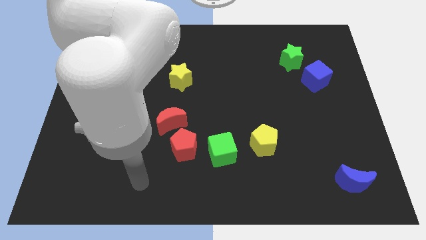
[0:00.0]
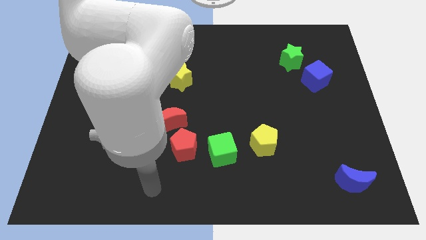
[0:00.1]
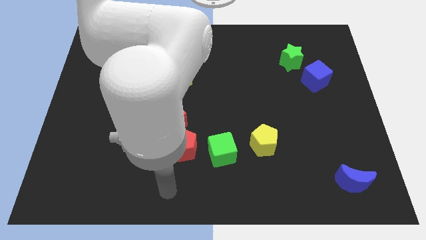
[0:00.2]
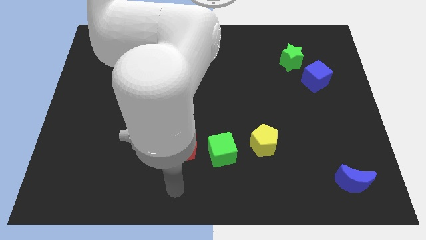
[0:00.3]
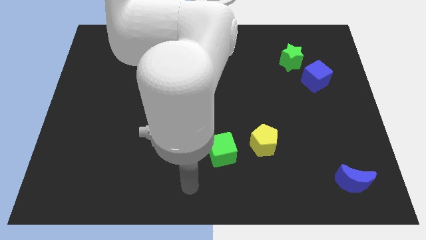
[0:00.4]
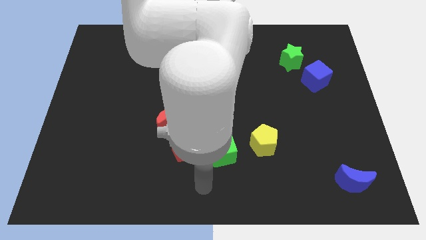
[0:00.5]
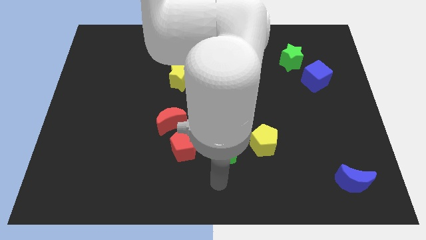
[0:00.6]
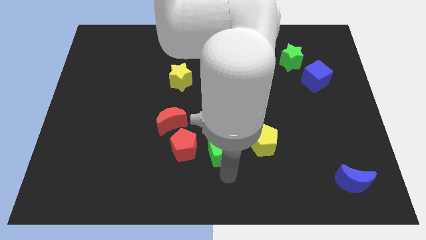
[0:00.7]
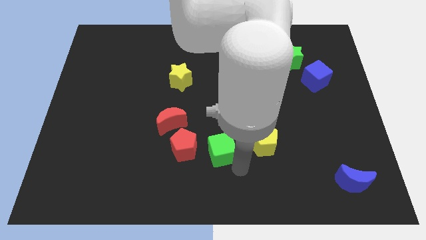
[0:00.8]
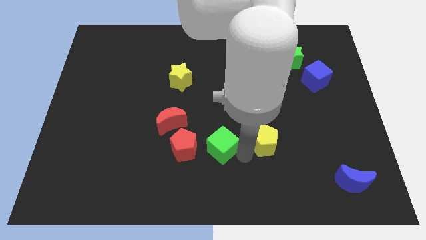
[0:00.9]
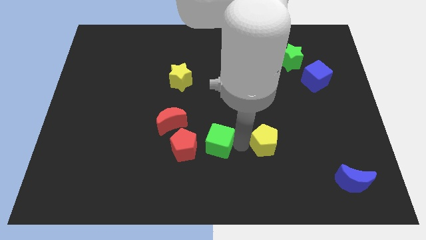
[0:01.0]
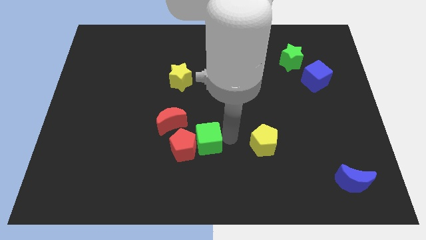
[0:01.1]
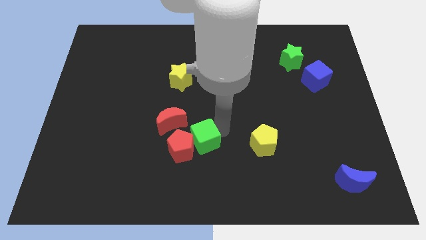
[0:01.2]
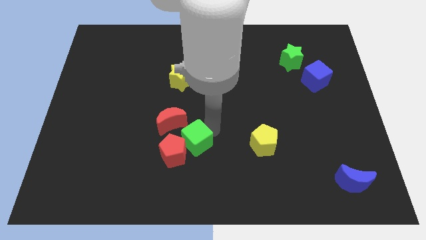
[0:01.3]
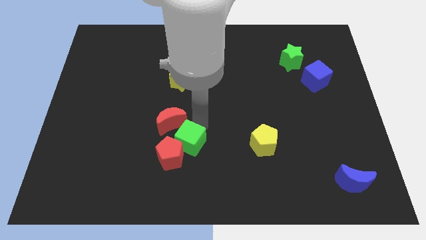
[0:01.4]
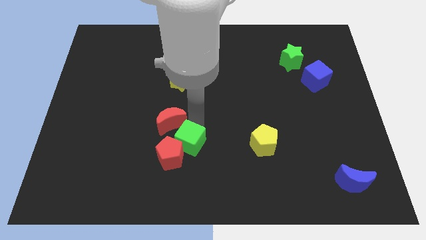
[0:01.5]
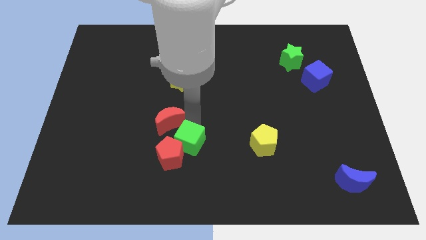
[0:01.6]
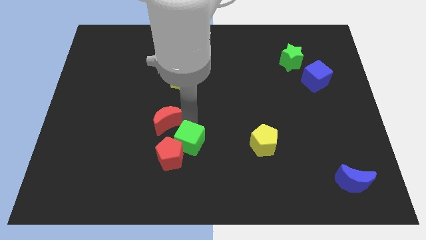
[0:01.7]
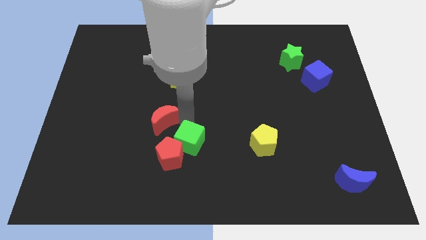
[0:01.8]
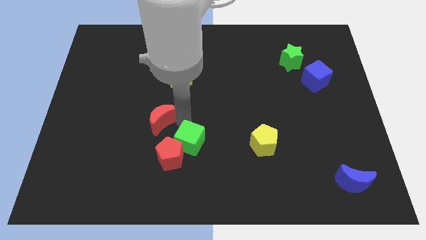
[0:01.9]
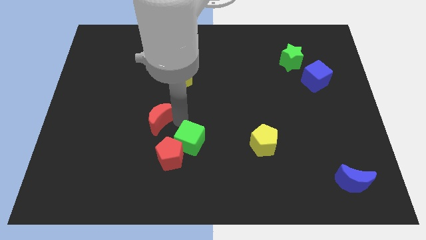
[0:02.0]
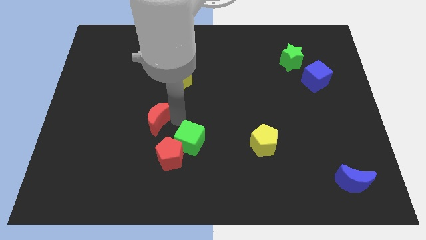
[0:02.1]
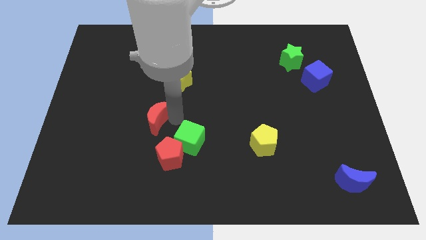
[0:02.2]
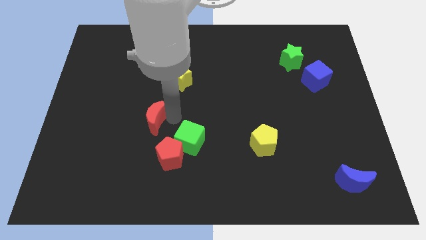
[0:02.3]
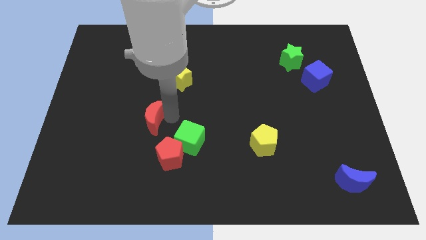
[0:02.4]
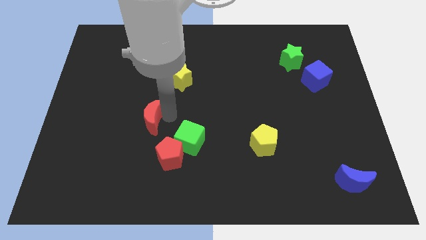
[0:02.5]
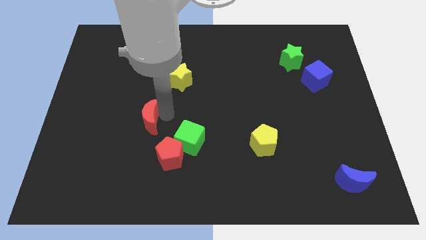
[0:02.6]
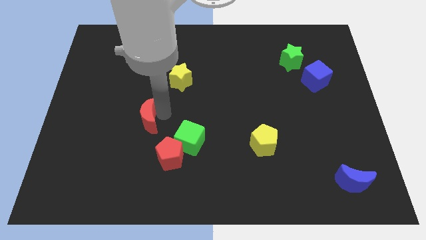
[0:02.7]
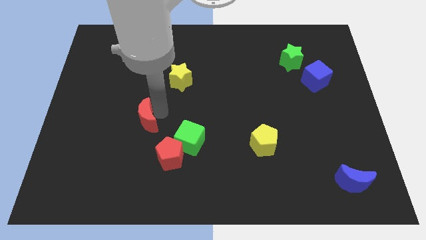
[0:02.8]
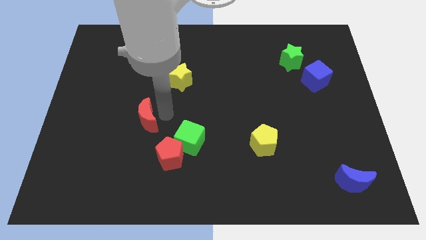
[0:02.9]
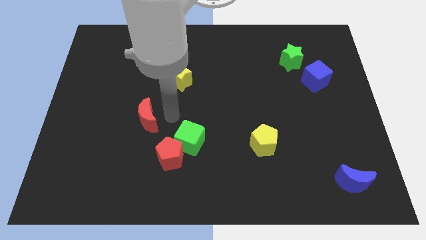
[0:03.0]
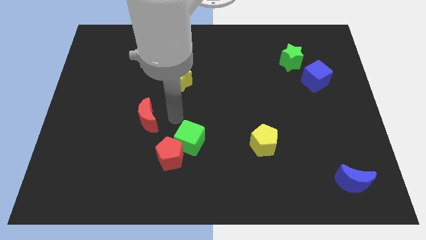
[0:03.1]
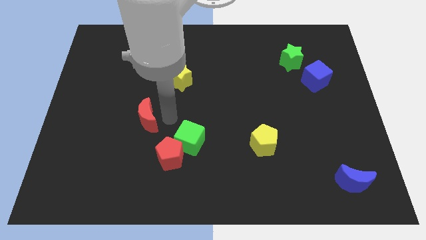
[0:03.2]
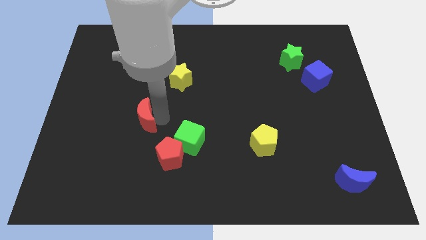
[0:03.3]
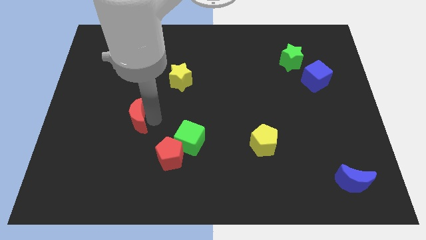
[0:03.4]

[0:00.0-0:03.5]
push the red moon slightly left

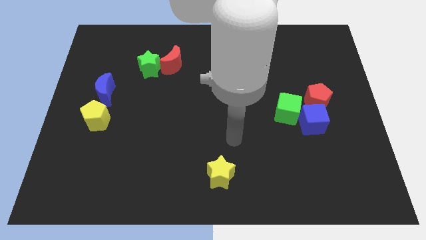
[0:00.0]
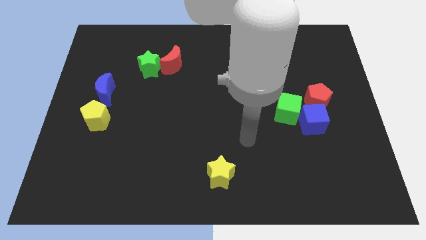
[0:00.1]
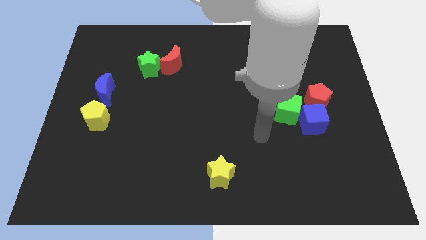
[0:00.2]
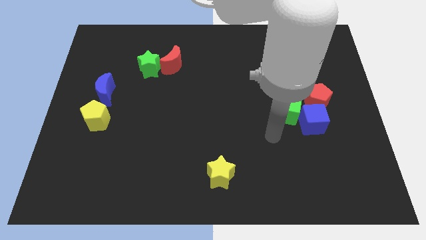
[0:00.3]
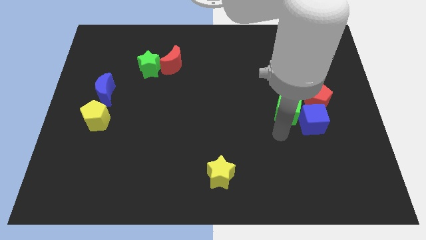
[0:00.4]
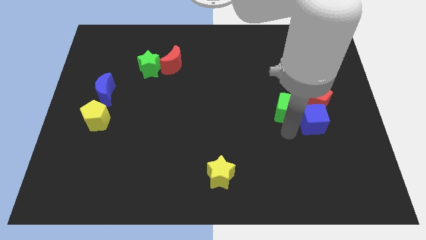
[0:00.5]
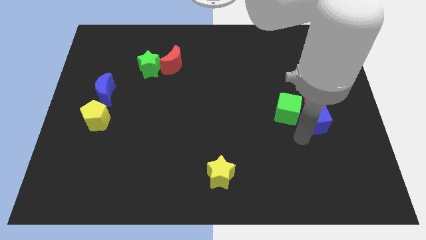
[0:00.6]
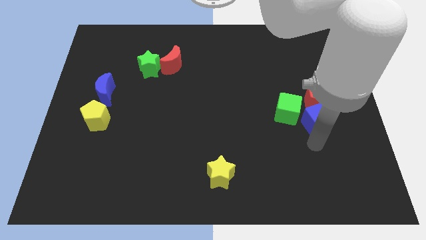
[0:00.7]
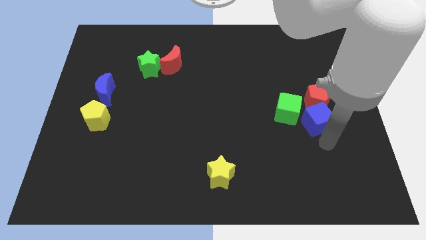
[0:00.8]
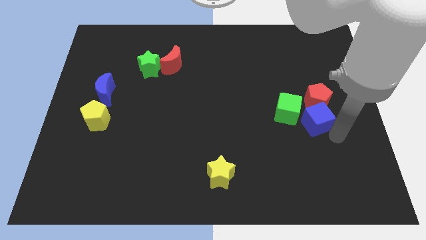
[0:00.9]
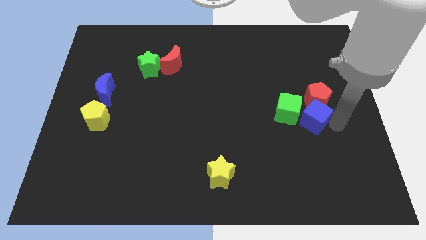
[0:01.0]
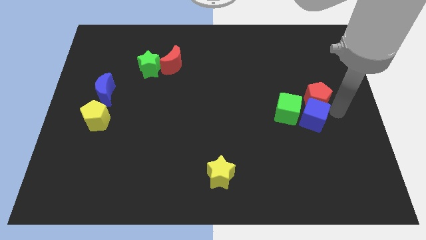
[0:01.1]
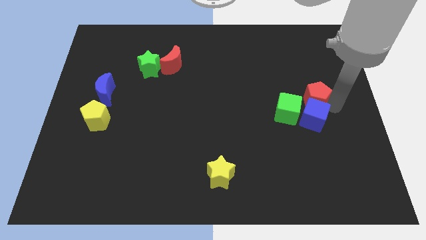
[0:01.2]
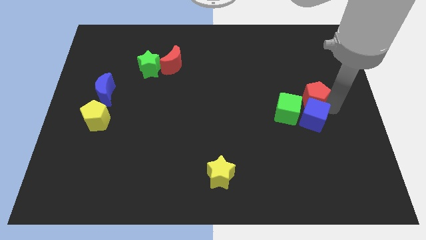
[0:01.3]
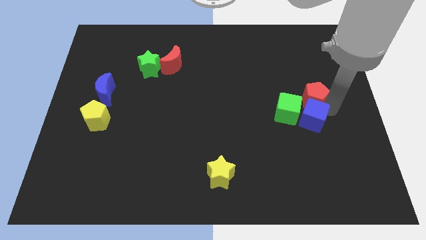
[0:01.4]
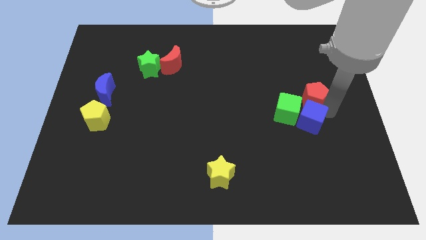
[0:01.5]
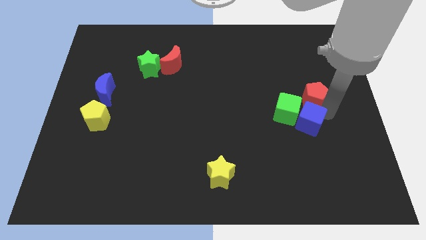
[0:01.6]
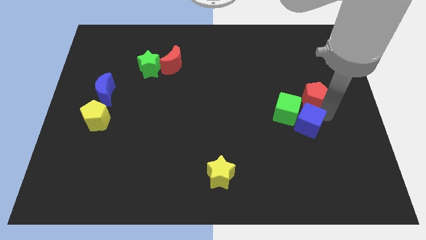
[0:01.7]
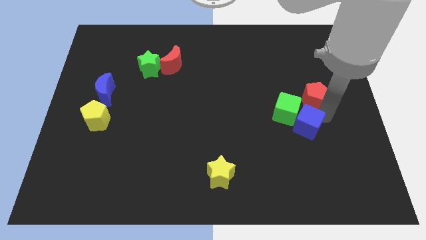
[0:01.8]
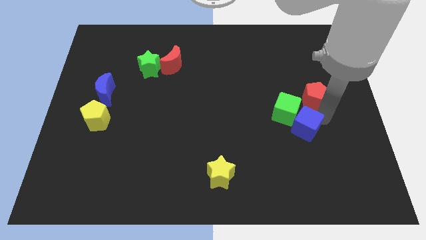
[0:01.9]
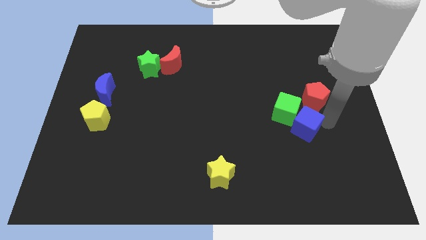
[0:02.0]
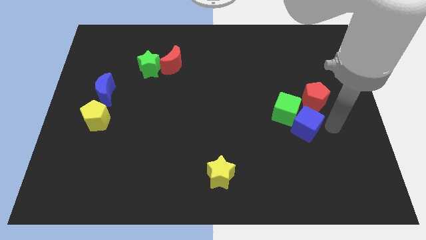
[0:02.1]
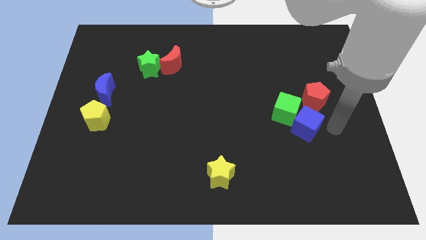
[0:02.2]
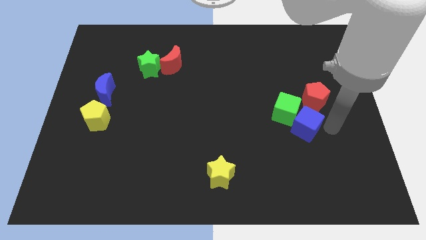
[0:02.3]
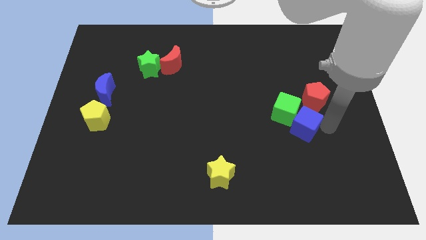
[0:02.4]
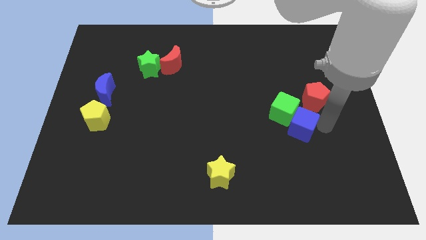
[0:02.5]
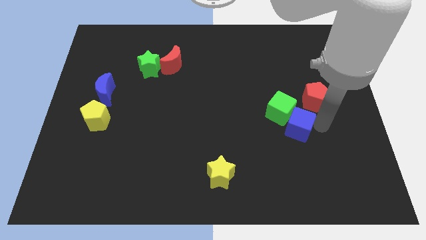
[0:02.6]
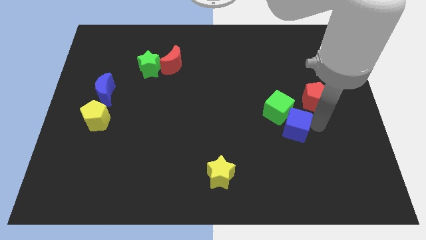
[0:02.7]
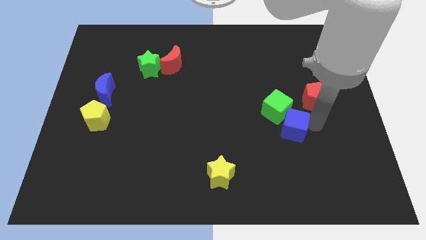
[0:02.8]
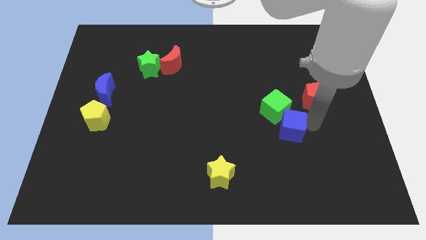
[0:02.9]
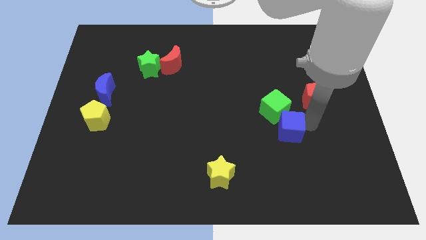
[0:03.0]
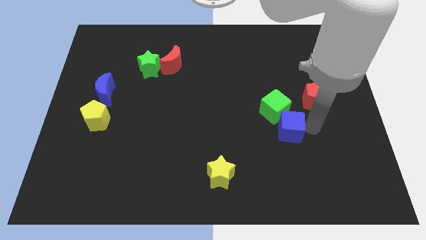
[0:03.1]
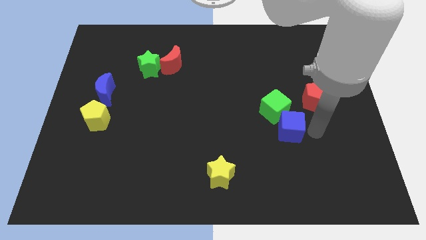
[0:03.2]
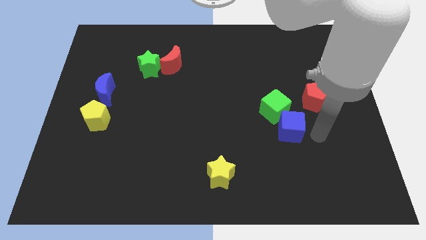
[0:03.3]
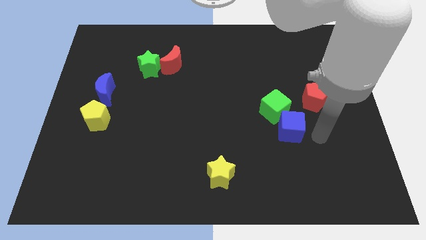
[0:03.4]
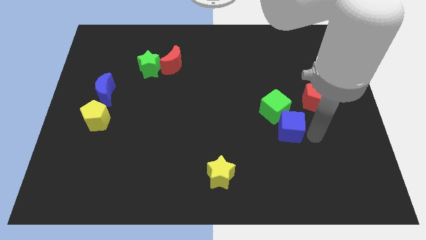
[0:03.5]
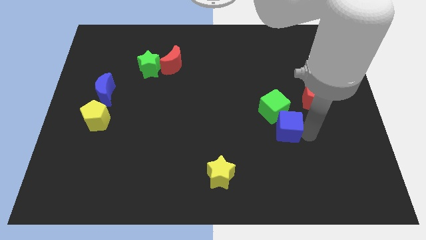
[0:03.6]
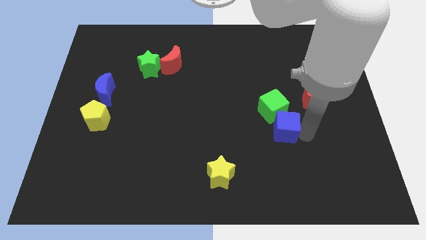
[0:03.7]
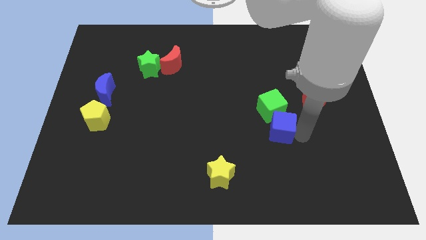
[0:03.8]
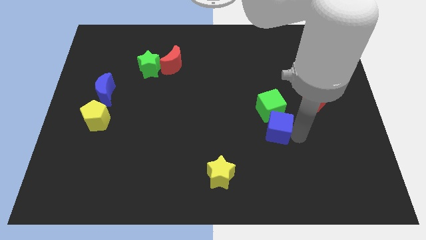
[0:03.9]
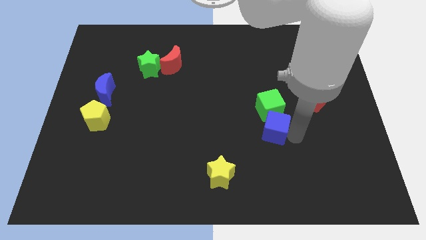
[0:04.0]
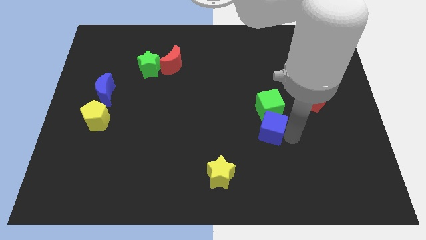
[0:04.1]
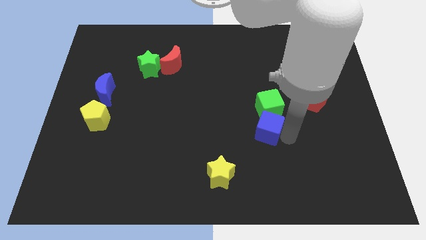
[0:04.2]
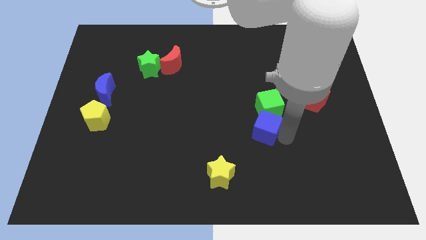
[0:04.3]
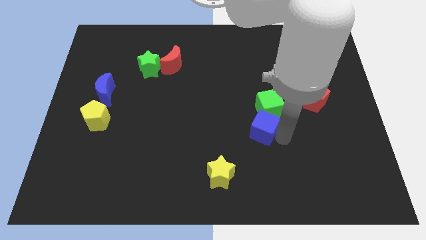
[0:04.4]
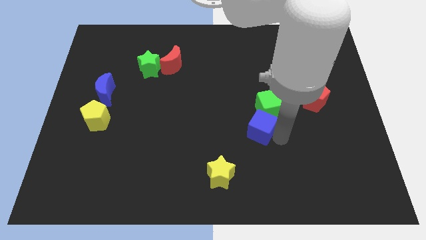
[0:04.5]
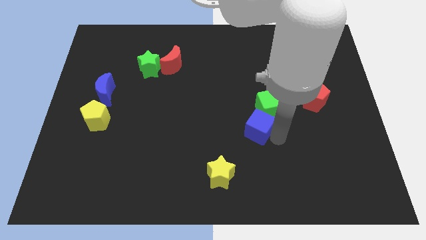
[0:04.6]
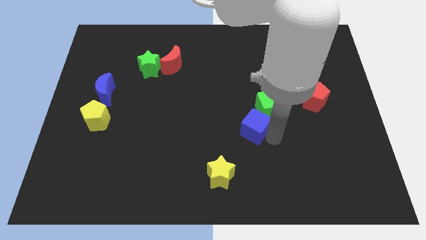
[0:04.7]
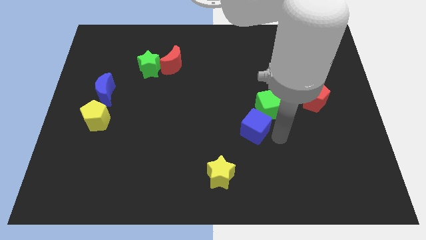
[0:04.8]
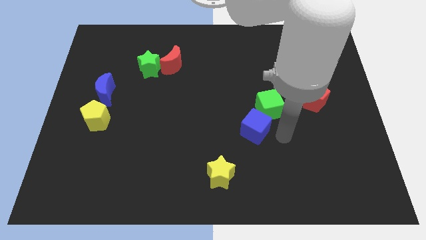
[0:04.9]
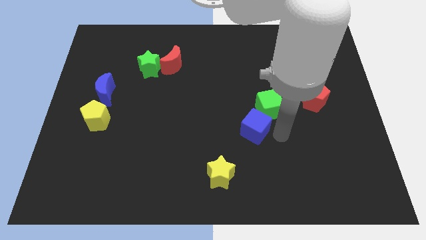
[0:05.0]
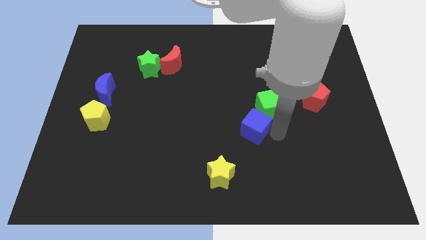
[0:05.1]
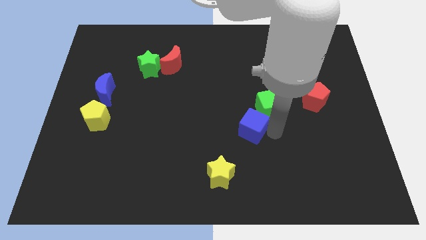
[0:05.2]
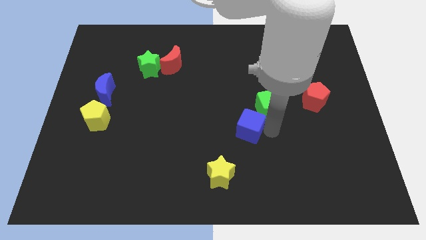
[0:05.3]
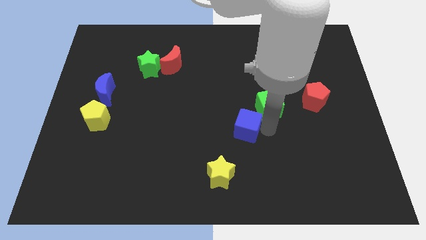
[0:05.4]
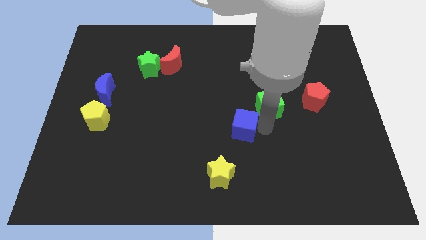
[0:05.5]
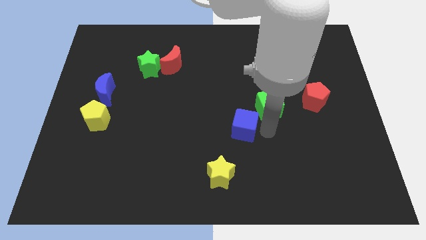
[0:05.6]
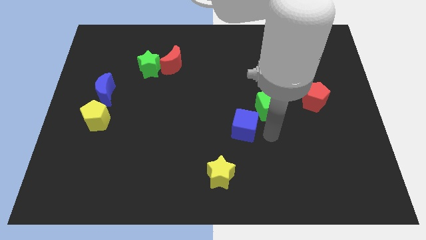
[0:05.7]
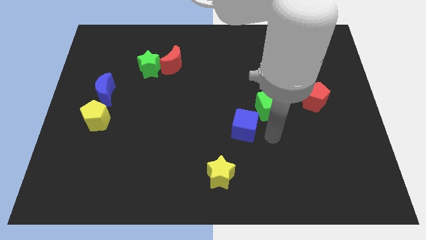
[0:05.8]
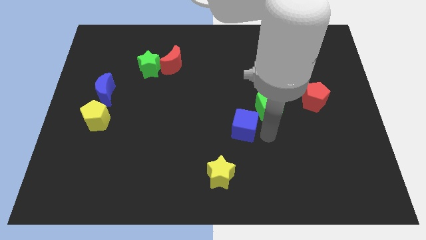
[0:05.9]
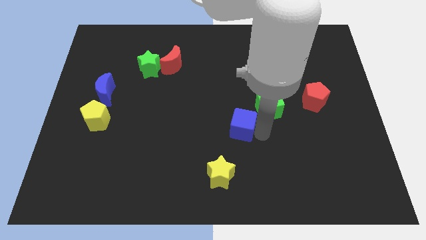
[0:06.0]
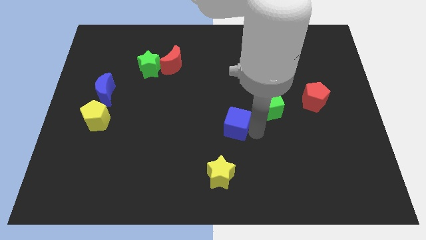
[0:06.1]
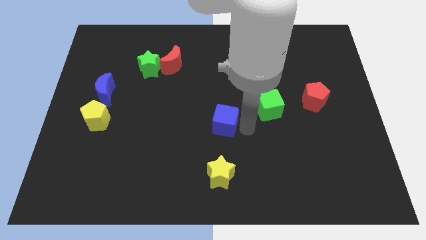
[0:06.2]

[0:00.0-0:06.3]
move the blue cube to the left
